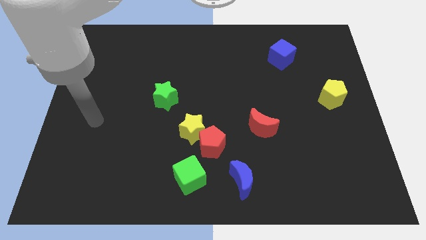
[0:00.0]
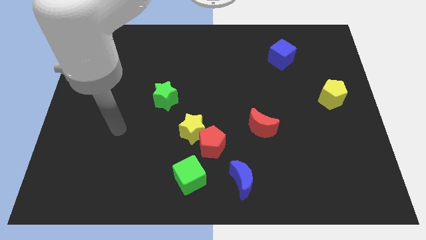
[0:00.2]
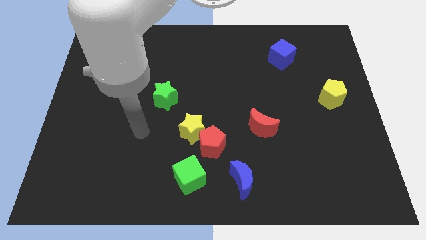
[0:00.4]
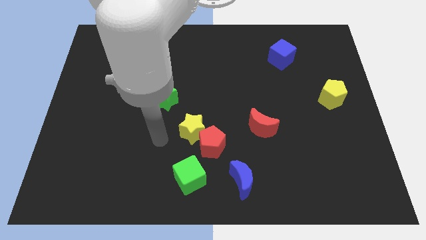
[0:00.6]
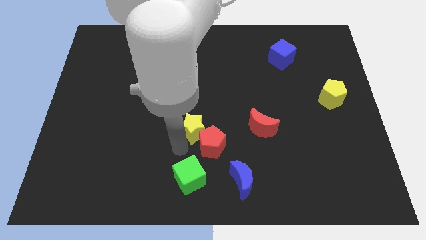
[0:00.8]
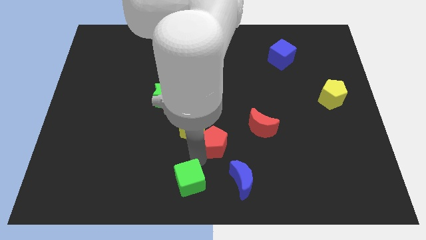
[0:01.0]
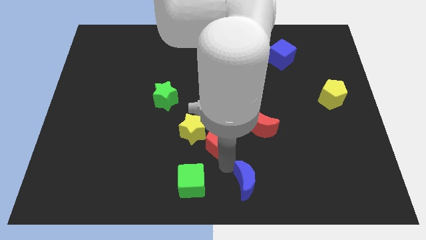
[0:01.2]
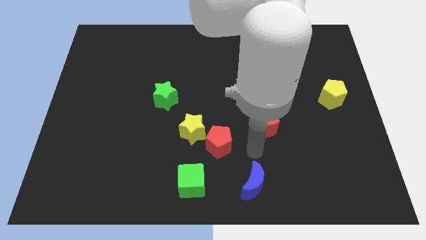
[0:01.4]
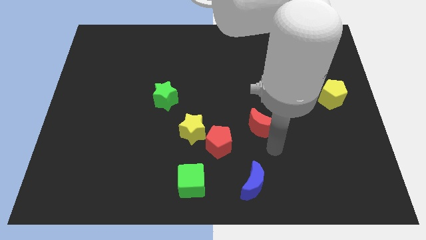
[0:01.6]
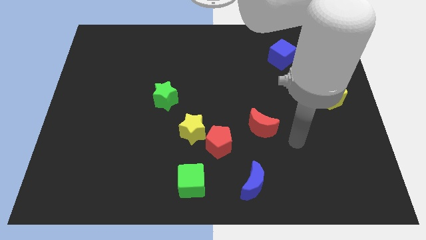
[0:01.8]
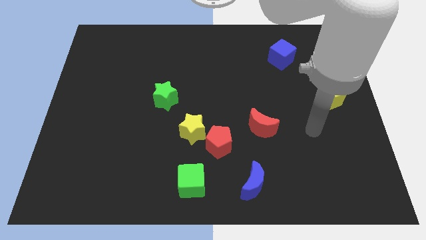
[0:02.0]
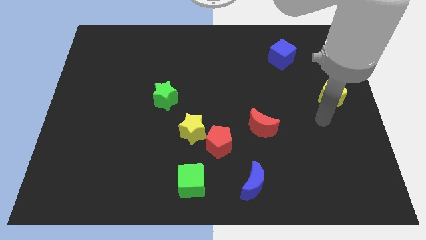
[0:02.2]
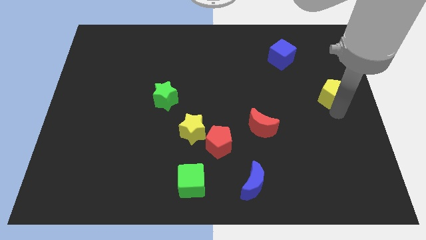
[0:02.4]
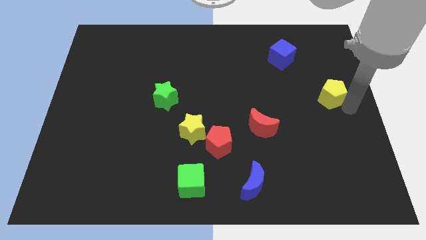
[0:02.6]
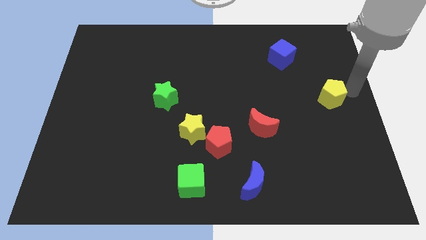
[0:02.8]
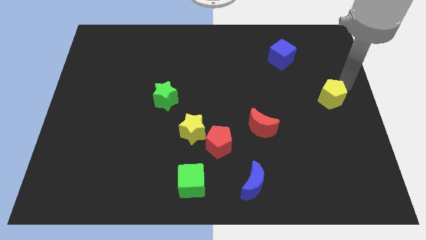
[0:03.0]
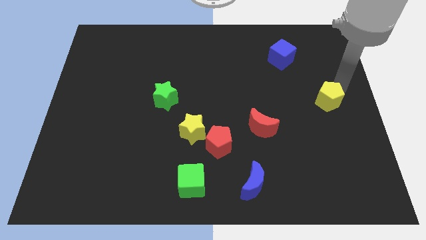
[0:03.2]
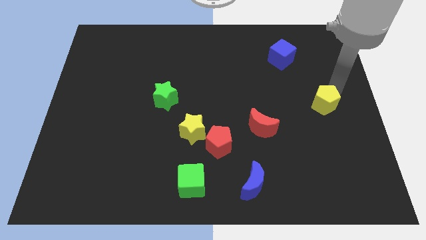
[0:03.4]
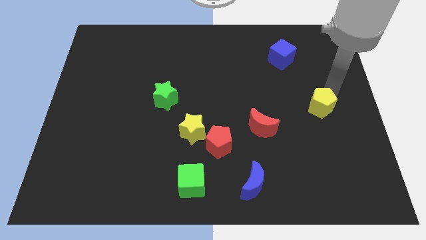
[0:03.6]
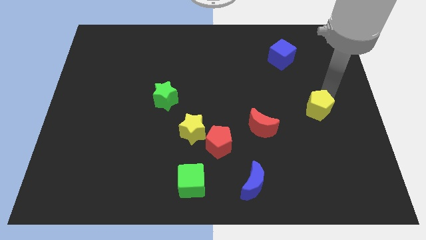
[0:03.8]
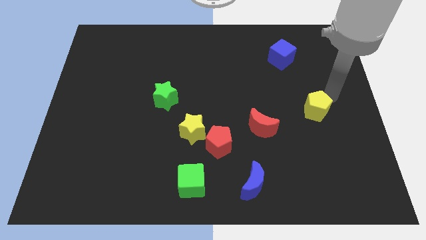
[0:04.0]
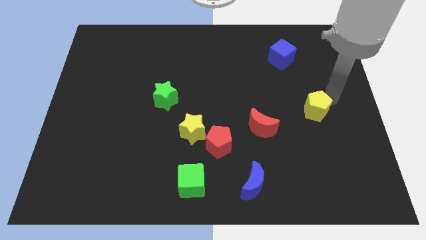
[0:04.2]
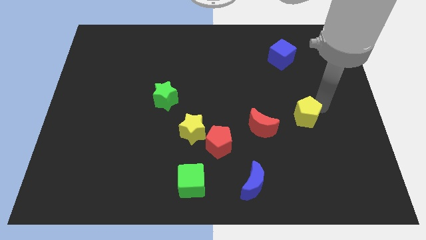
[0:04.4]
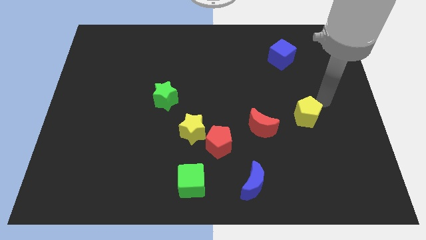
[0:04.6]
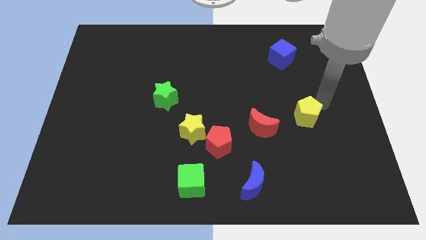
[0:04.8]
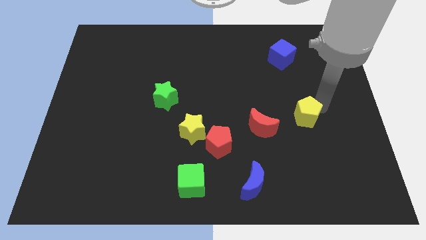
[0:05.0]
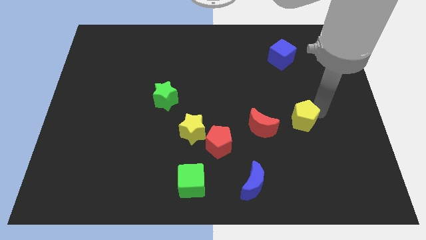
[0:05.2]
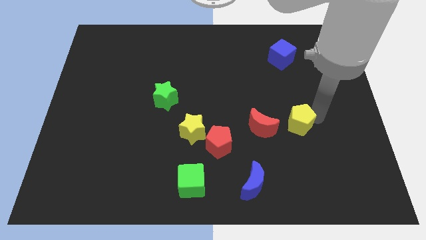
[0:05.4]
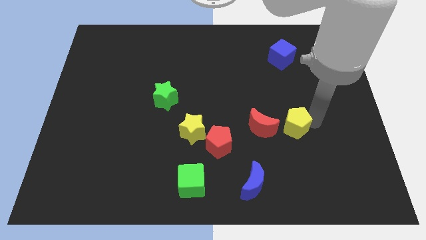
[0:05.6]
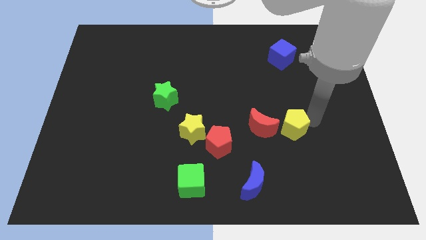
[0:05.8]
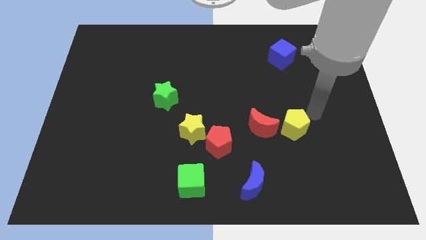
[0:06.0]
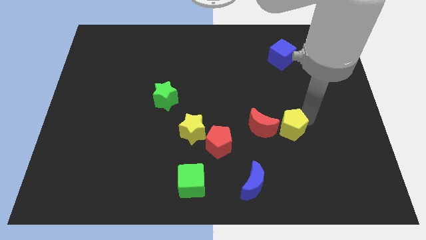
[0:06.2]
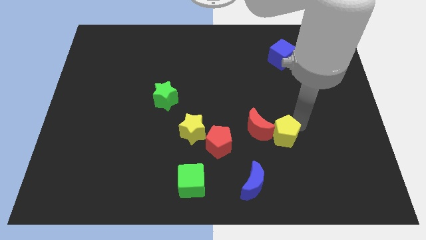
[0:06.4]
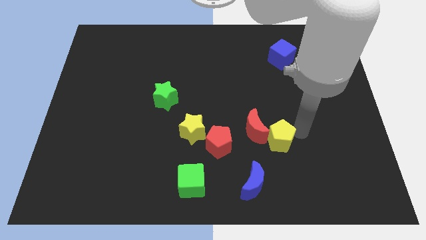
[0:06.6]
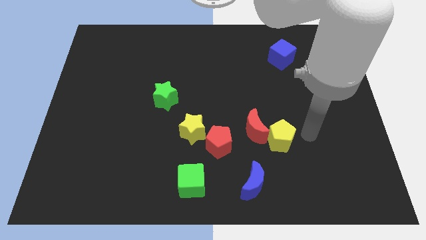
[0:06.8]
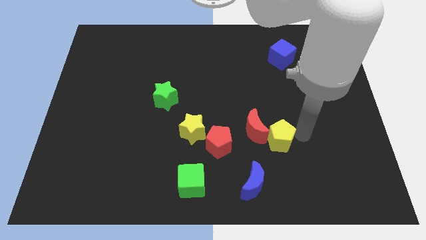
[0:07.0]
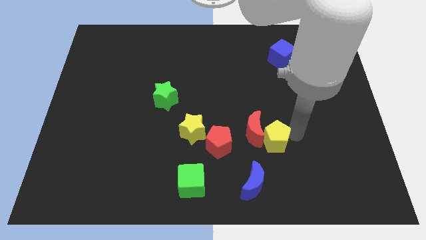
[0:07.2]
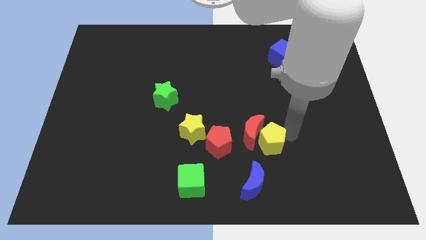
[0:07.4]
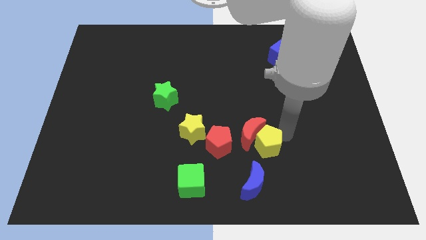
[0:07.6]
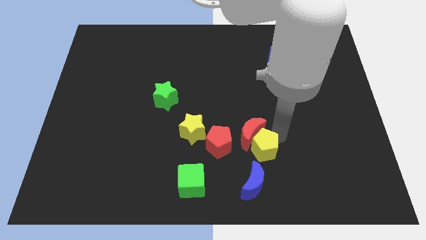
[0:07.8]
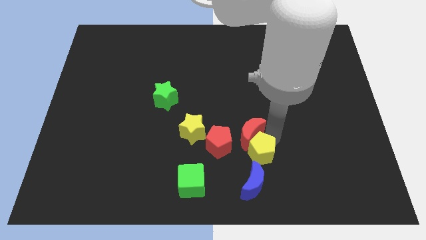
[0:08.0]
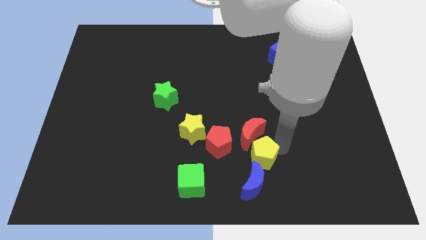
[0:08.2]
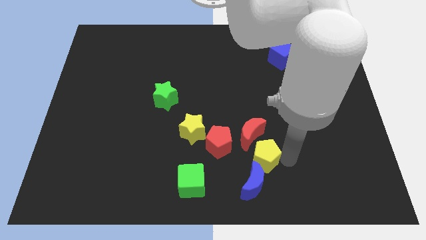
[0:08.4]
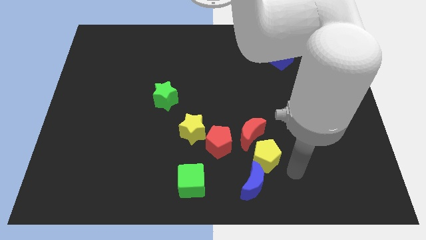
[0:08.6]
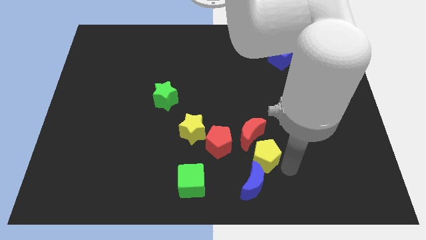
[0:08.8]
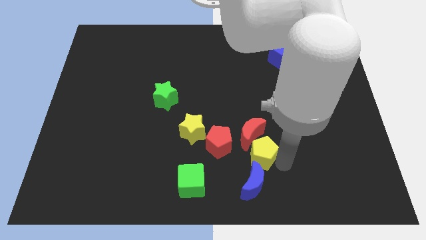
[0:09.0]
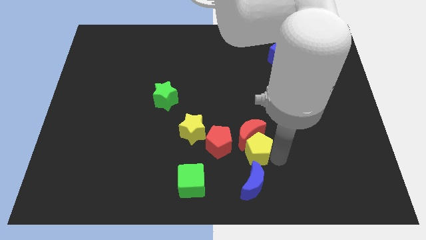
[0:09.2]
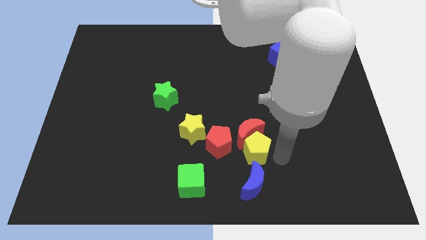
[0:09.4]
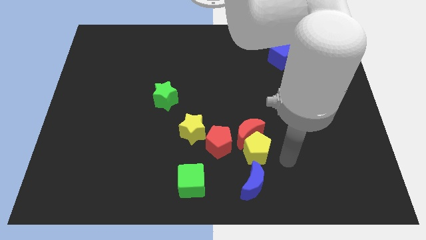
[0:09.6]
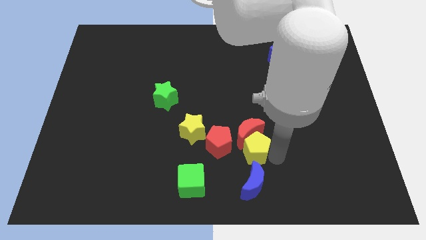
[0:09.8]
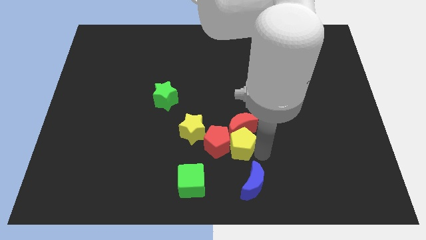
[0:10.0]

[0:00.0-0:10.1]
push the yellow pentagon towards the red pentagon

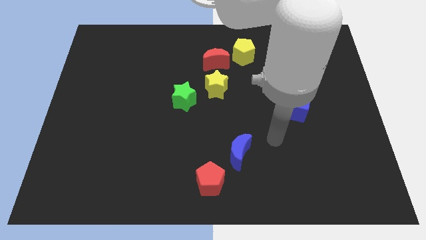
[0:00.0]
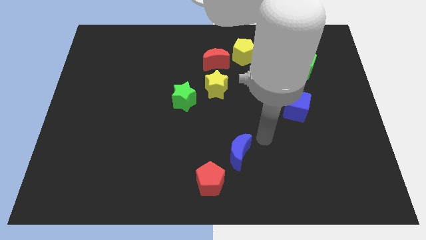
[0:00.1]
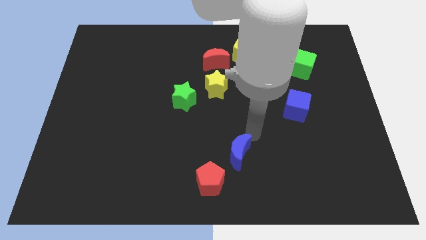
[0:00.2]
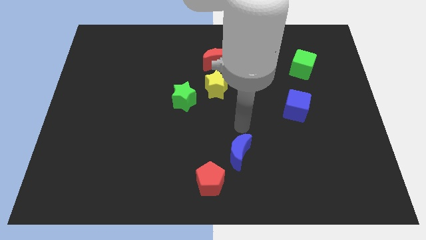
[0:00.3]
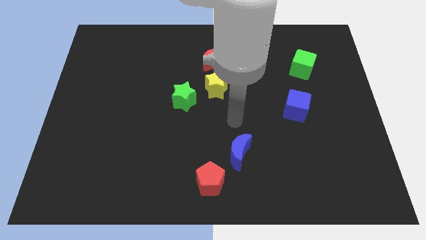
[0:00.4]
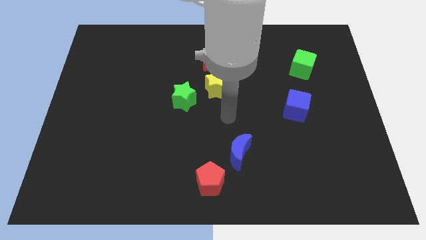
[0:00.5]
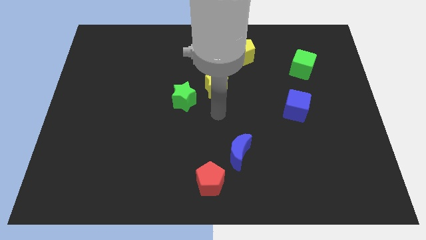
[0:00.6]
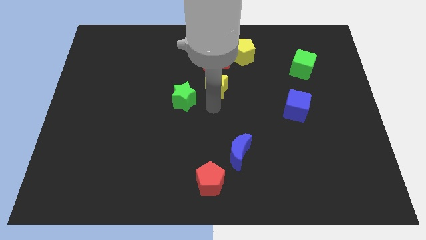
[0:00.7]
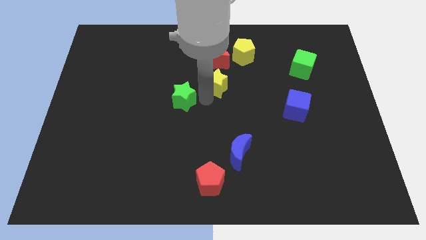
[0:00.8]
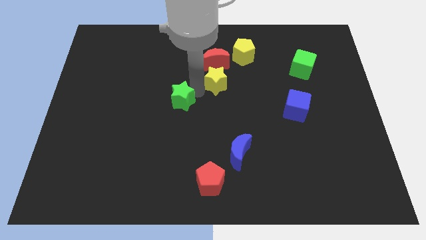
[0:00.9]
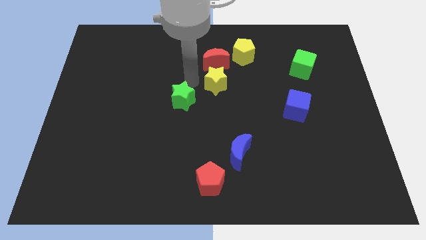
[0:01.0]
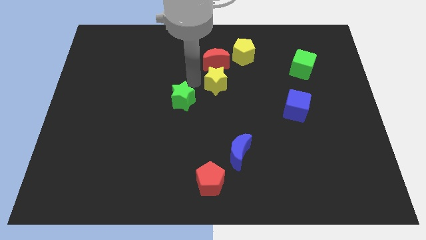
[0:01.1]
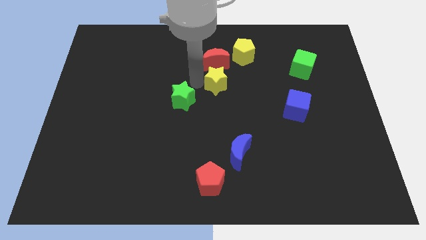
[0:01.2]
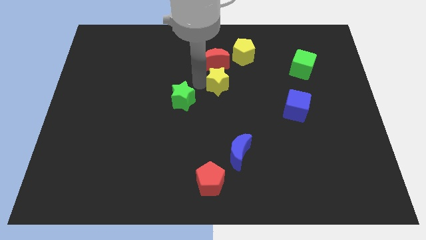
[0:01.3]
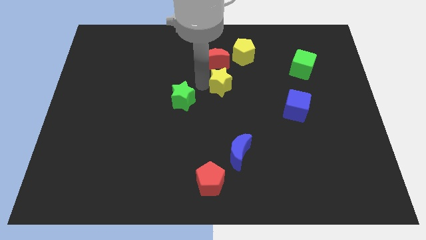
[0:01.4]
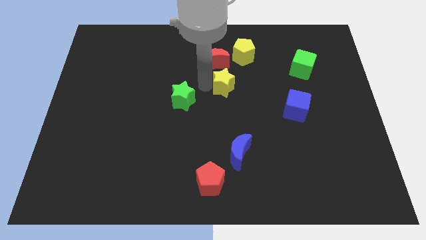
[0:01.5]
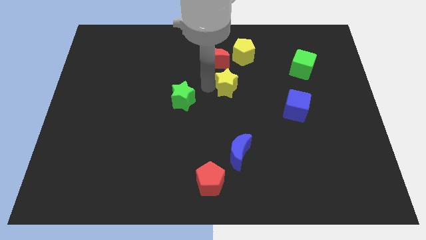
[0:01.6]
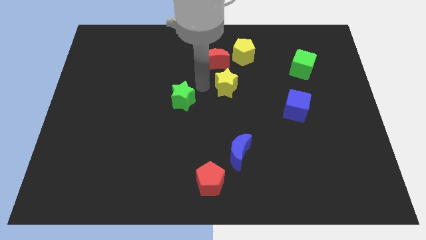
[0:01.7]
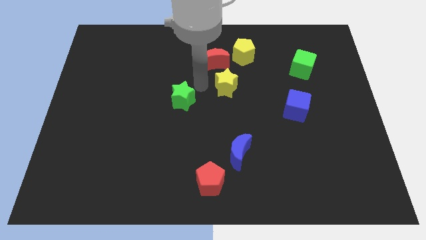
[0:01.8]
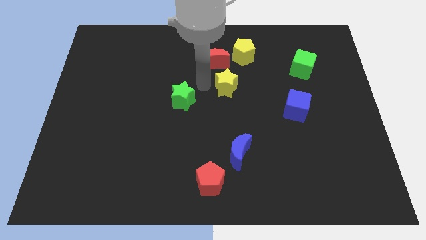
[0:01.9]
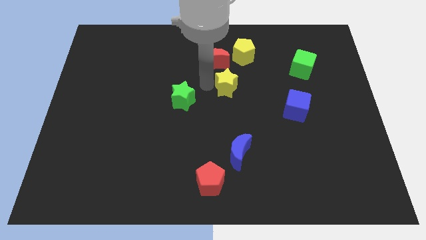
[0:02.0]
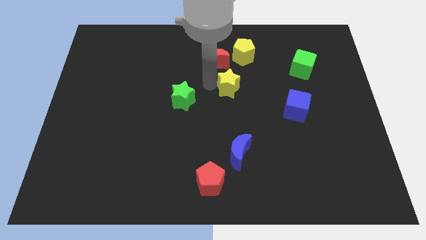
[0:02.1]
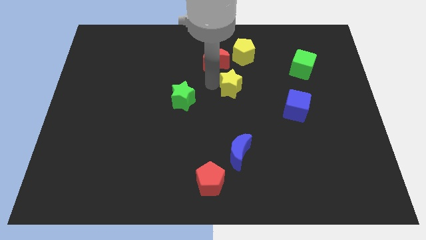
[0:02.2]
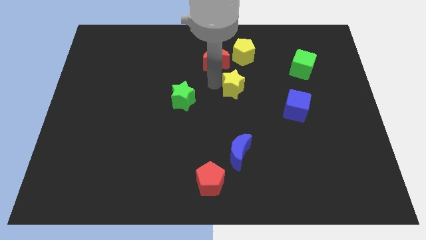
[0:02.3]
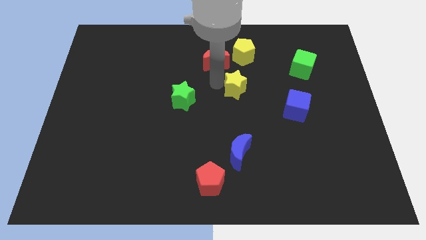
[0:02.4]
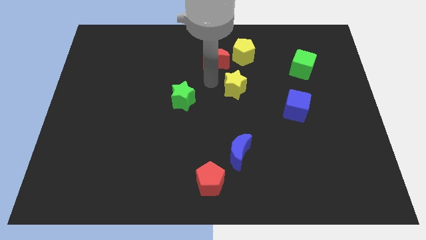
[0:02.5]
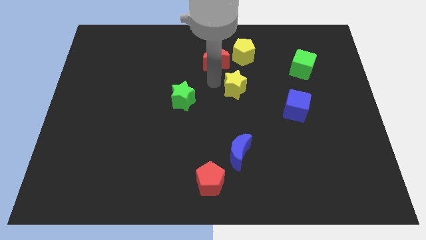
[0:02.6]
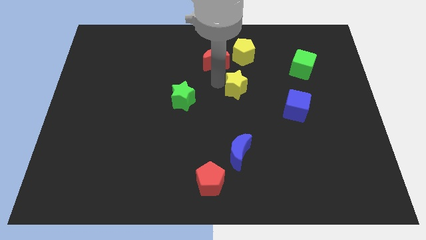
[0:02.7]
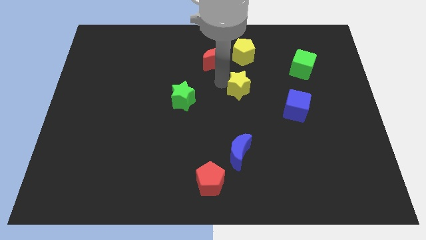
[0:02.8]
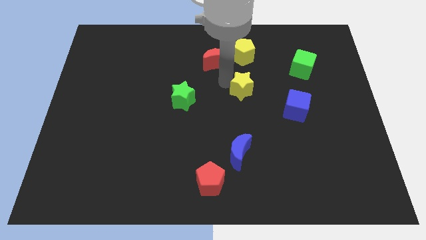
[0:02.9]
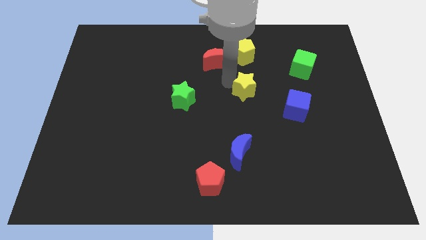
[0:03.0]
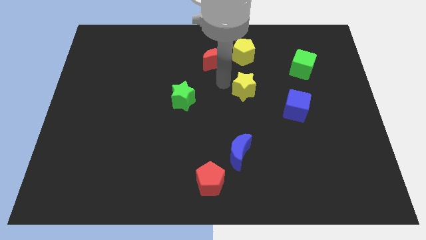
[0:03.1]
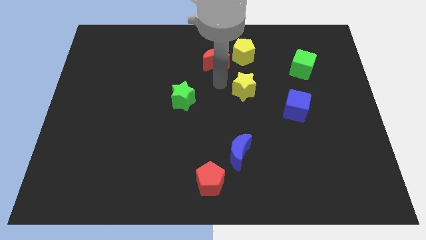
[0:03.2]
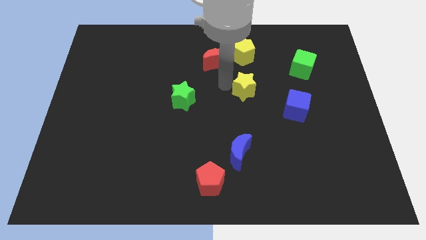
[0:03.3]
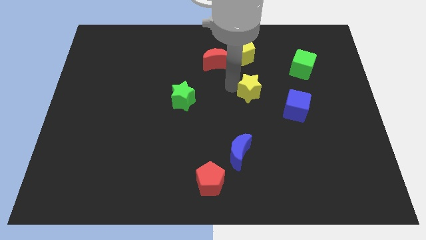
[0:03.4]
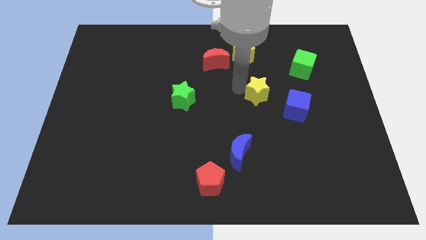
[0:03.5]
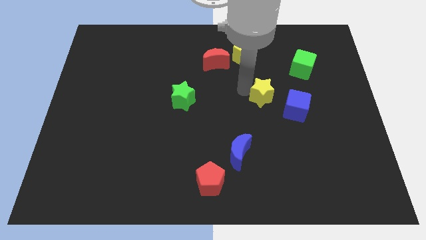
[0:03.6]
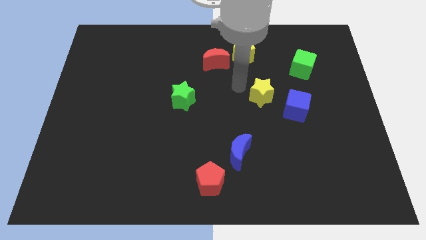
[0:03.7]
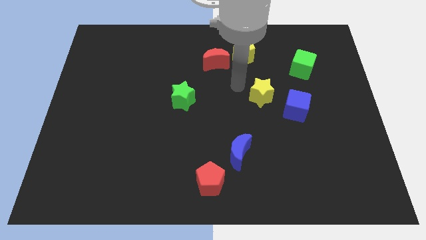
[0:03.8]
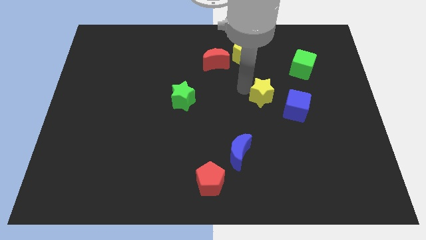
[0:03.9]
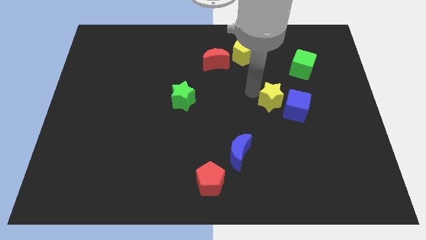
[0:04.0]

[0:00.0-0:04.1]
slide the yellow star towards the blue cube
